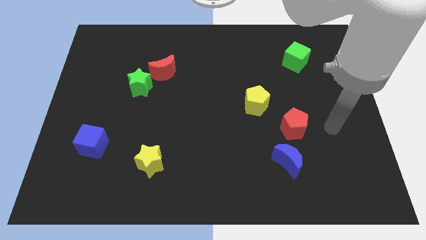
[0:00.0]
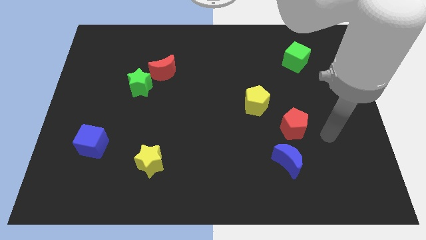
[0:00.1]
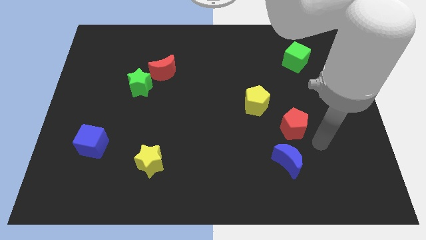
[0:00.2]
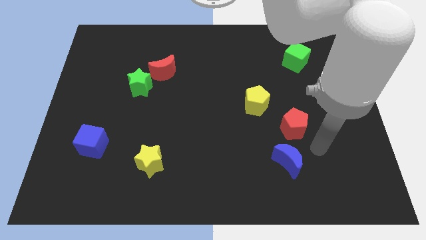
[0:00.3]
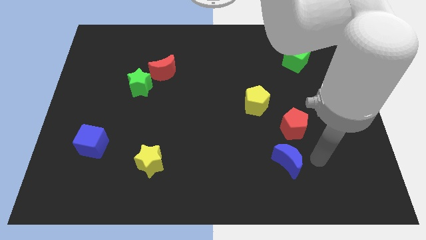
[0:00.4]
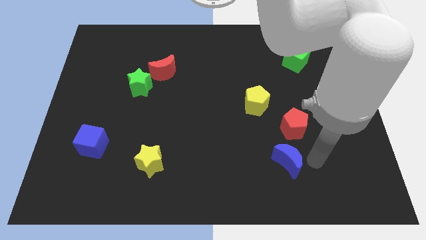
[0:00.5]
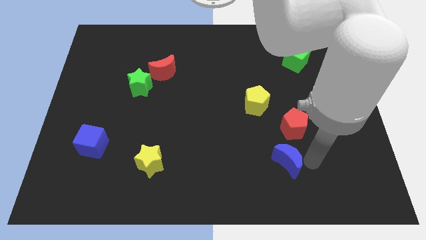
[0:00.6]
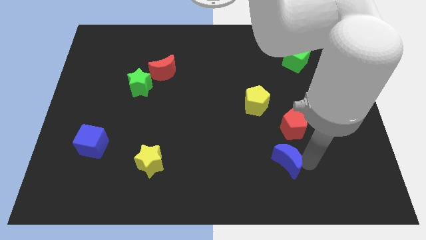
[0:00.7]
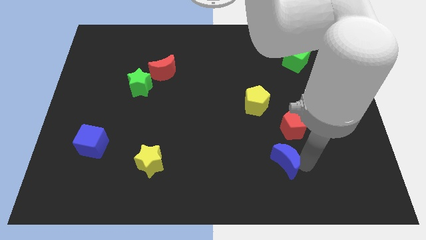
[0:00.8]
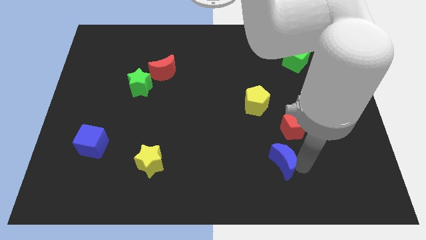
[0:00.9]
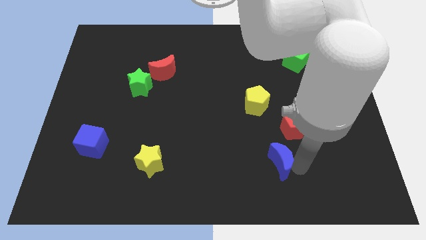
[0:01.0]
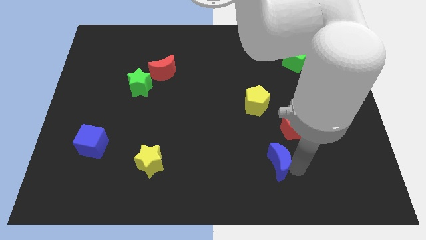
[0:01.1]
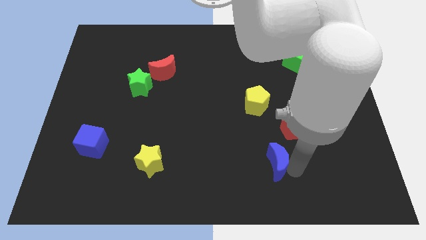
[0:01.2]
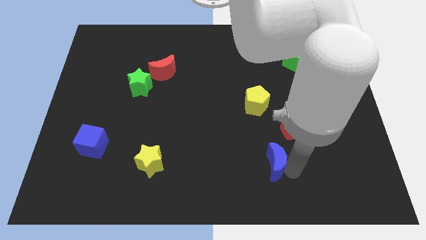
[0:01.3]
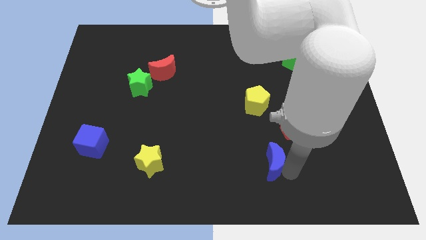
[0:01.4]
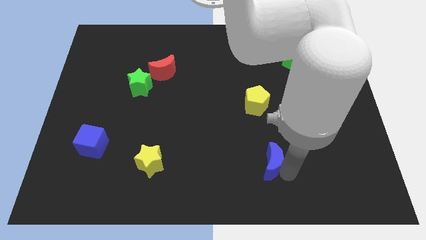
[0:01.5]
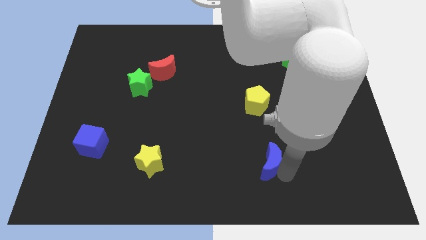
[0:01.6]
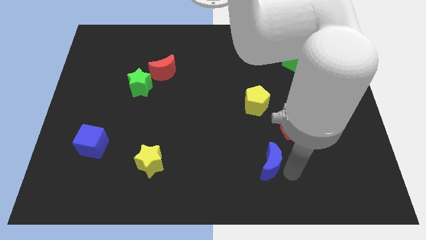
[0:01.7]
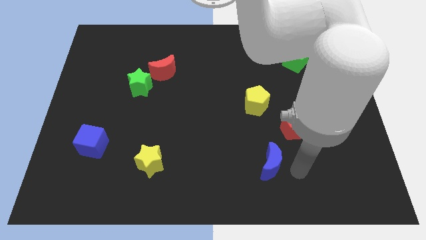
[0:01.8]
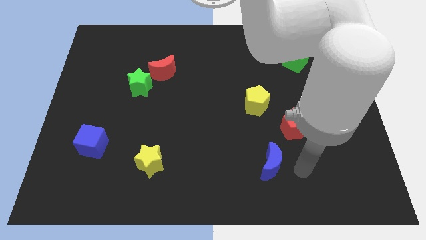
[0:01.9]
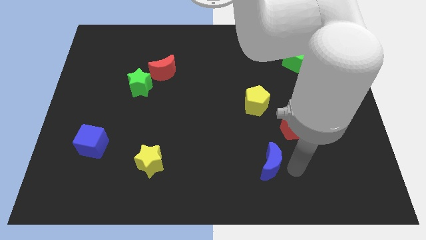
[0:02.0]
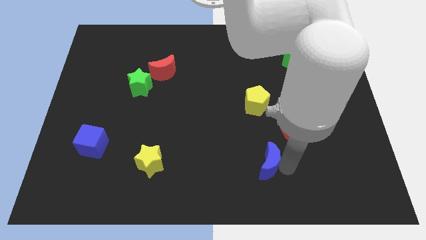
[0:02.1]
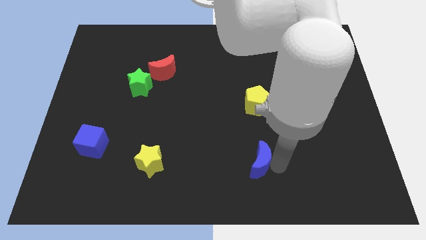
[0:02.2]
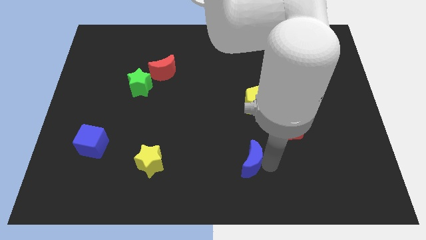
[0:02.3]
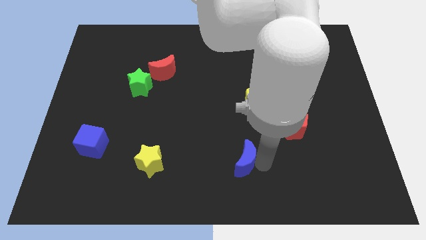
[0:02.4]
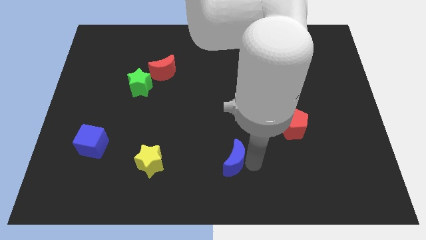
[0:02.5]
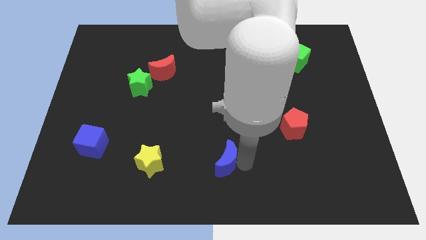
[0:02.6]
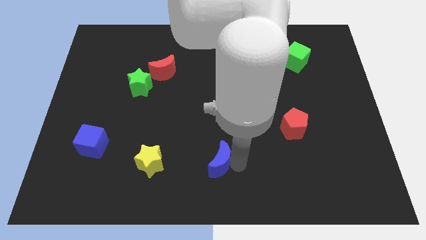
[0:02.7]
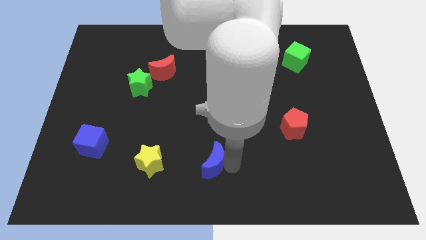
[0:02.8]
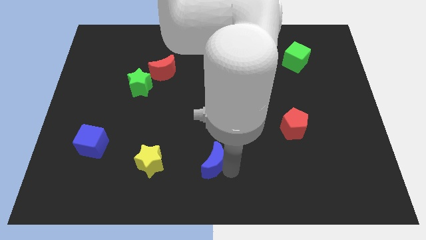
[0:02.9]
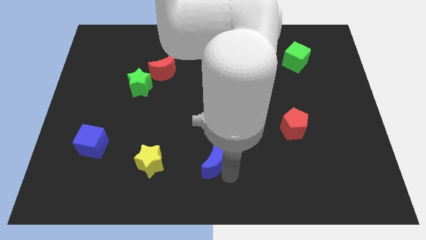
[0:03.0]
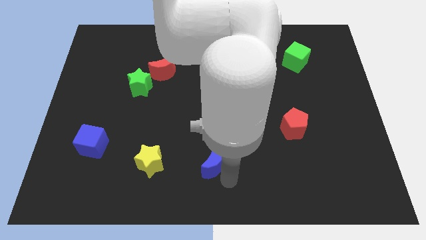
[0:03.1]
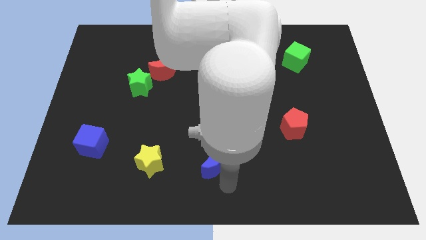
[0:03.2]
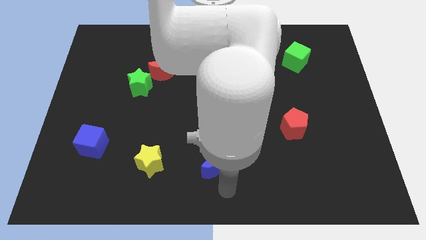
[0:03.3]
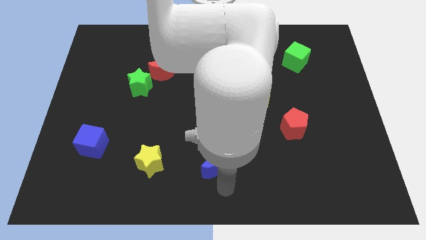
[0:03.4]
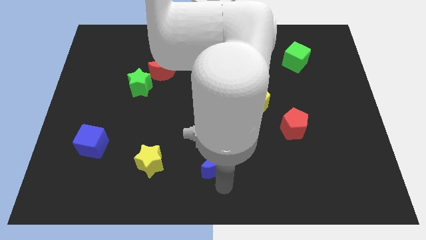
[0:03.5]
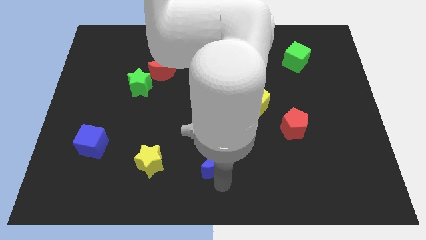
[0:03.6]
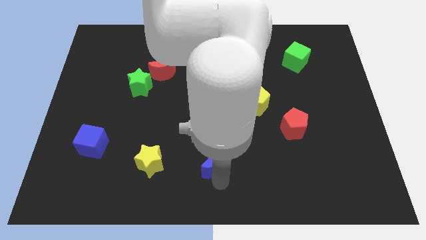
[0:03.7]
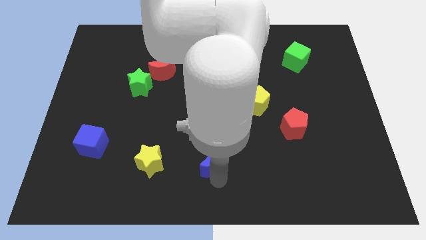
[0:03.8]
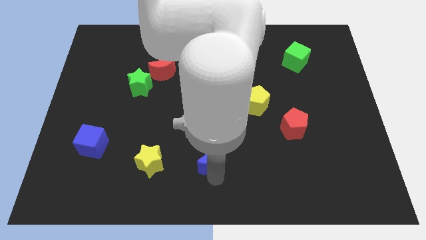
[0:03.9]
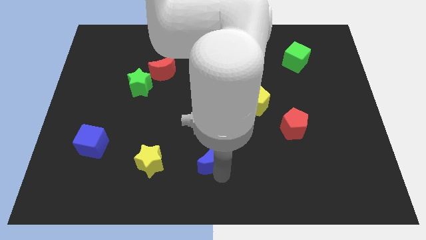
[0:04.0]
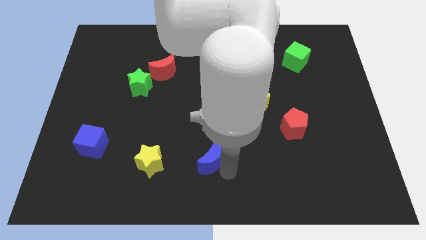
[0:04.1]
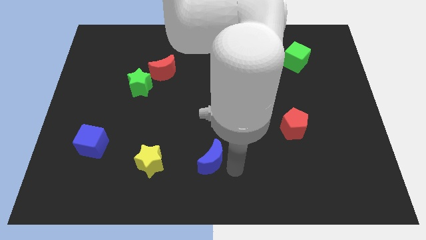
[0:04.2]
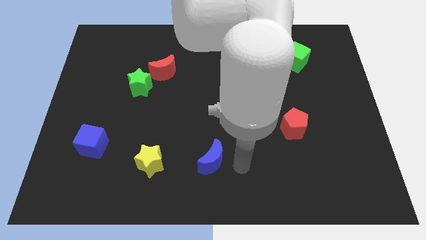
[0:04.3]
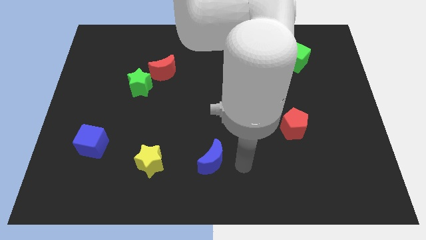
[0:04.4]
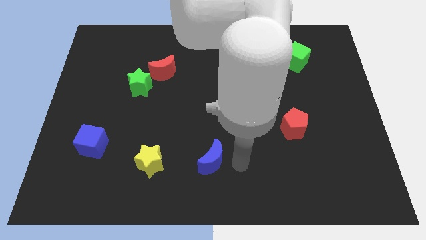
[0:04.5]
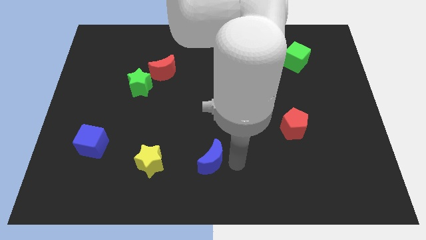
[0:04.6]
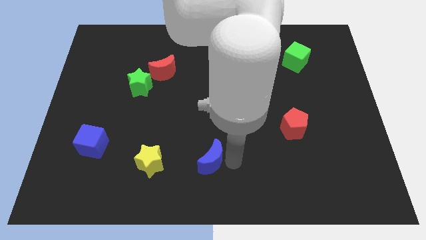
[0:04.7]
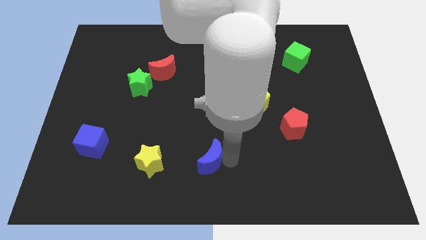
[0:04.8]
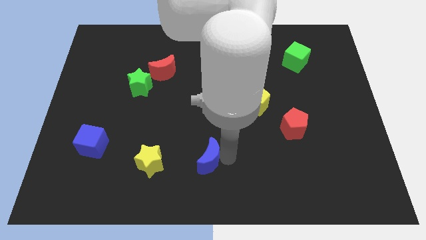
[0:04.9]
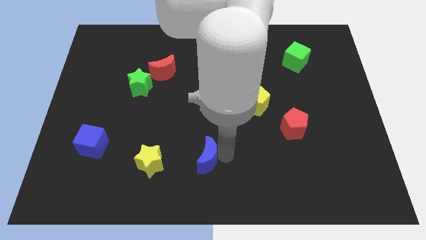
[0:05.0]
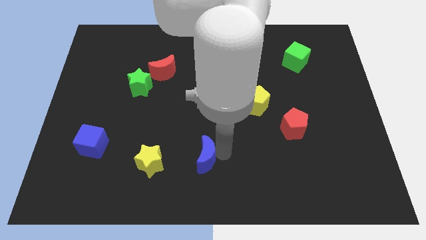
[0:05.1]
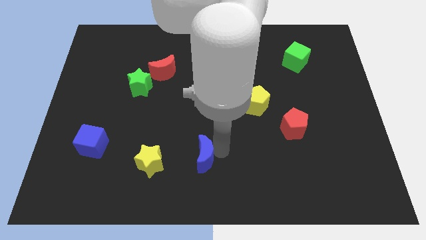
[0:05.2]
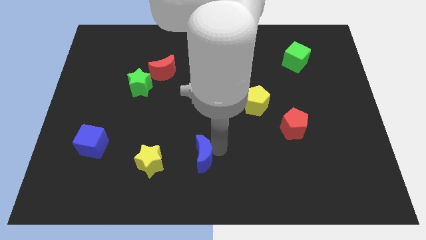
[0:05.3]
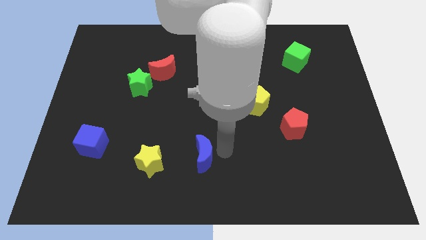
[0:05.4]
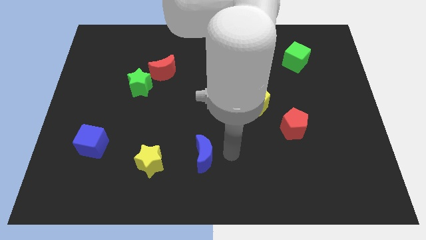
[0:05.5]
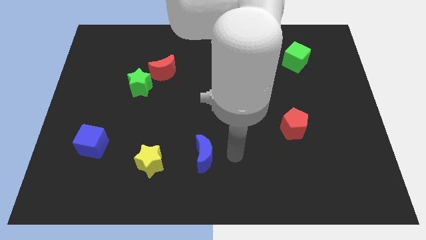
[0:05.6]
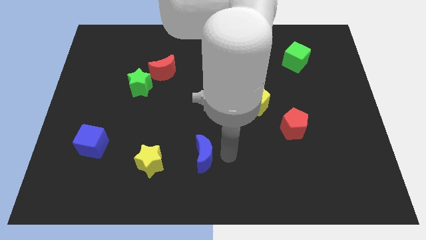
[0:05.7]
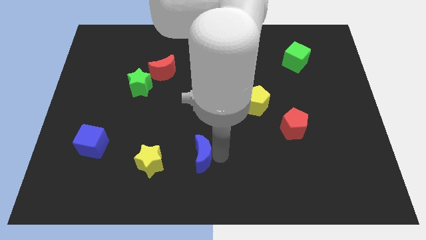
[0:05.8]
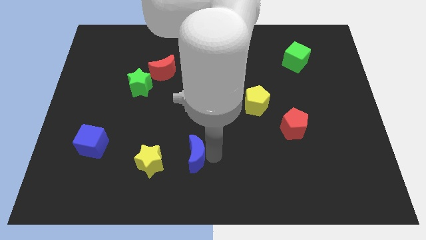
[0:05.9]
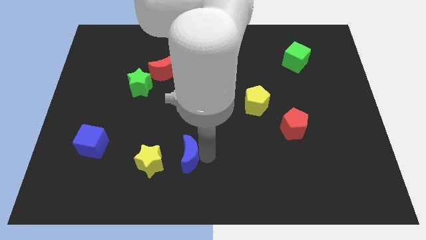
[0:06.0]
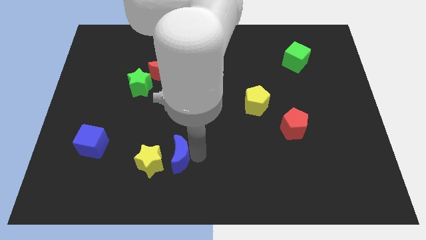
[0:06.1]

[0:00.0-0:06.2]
slide the blue moon close to the yellow star
